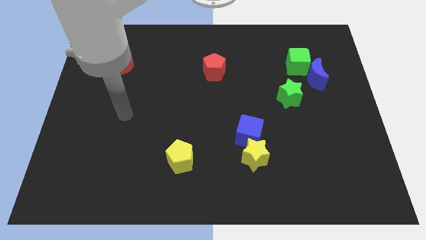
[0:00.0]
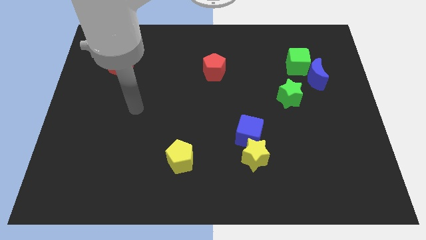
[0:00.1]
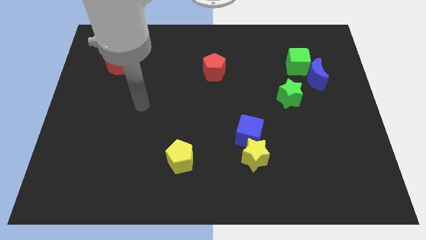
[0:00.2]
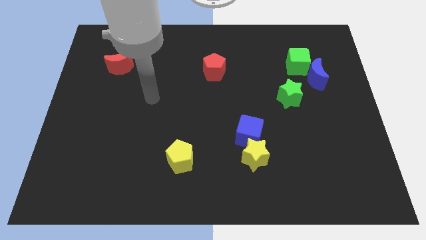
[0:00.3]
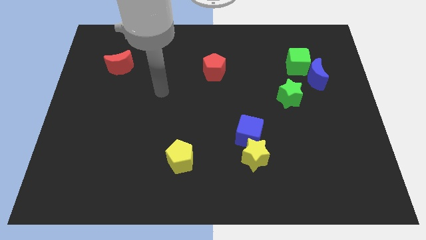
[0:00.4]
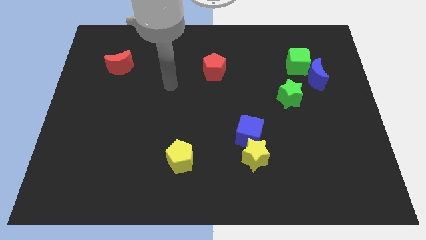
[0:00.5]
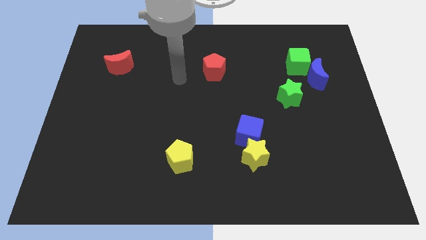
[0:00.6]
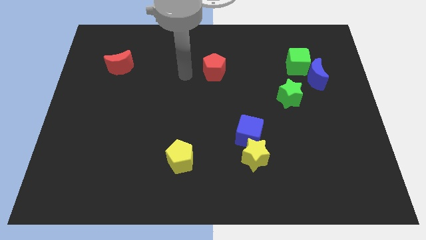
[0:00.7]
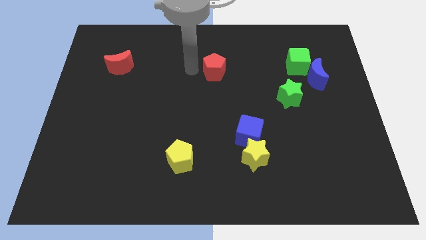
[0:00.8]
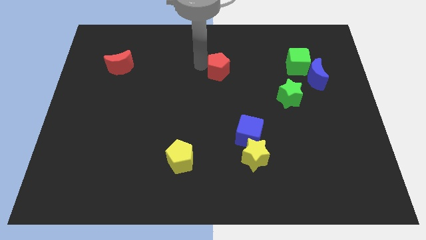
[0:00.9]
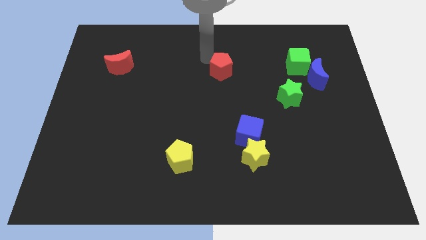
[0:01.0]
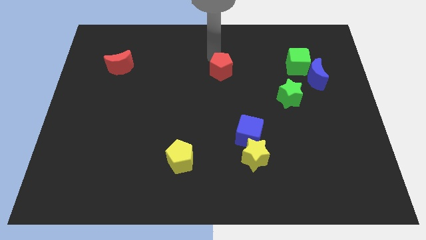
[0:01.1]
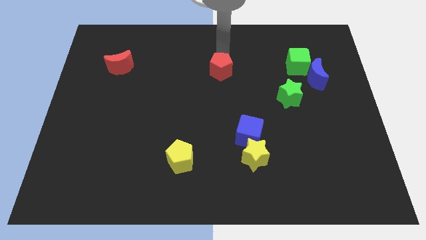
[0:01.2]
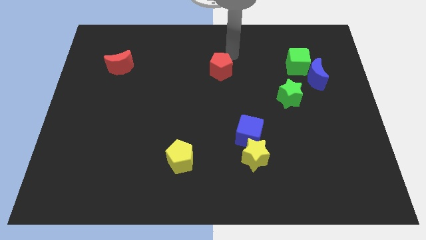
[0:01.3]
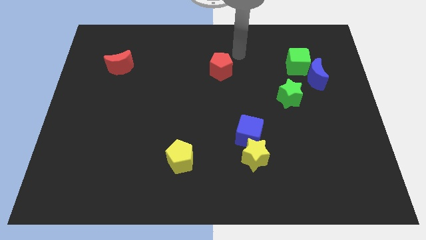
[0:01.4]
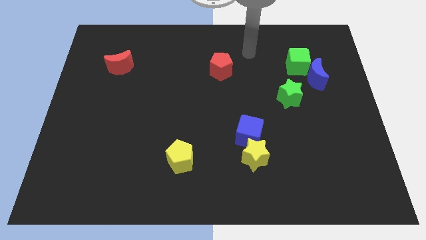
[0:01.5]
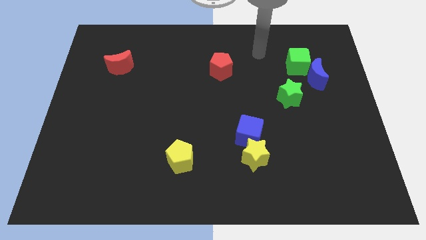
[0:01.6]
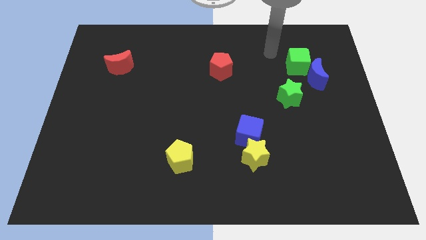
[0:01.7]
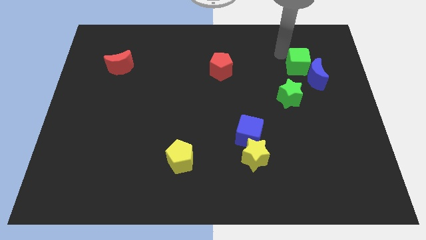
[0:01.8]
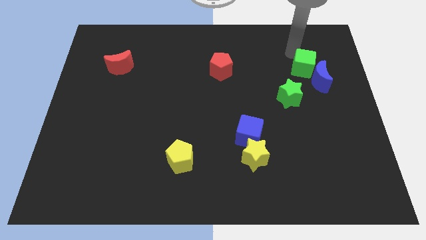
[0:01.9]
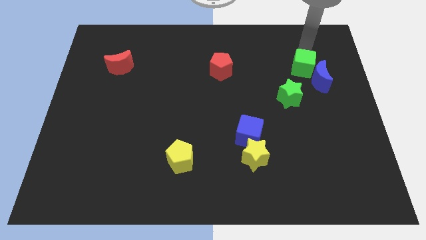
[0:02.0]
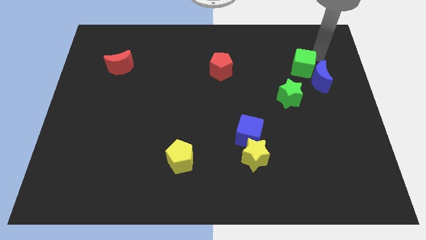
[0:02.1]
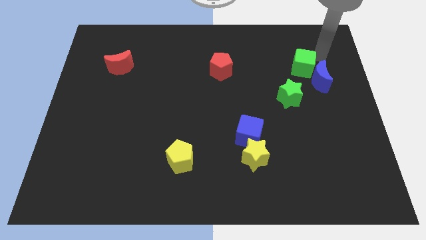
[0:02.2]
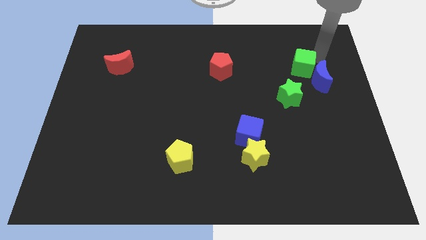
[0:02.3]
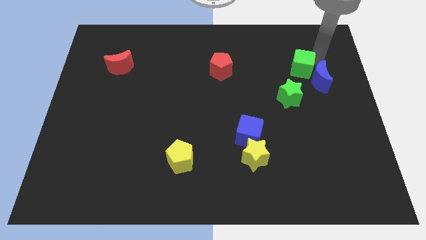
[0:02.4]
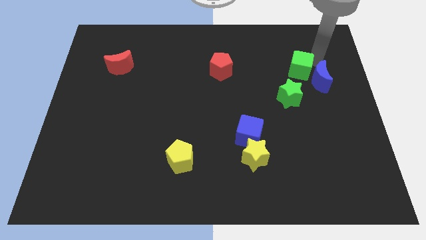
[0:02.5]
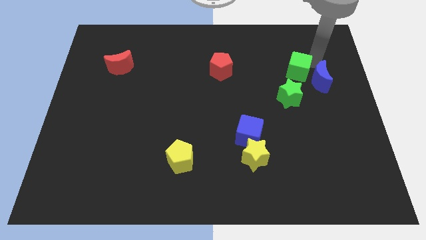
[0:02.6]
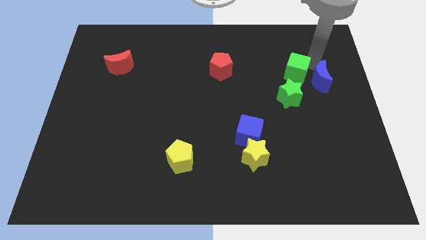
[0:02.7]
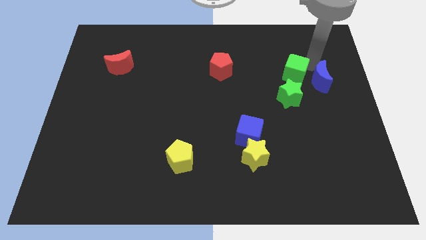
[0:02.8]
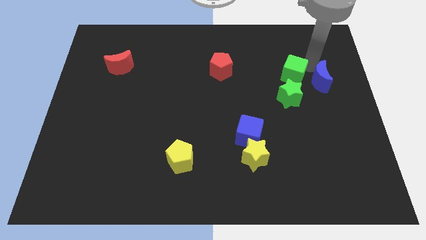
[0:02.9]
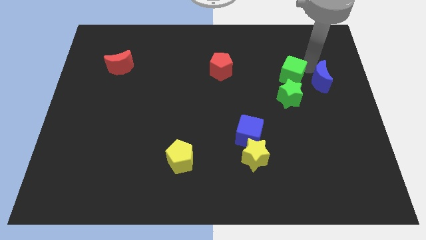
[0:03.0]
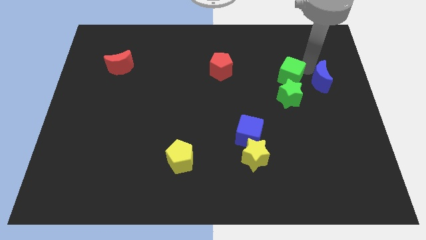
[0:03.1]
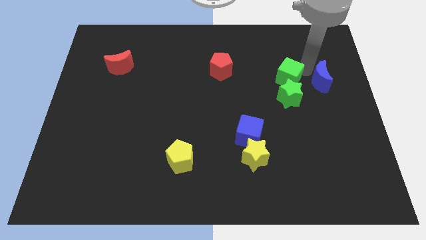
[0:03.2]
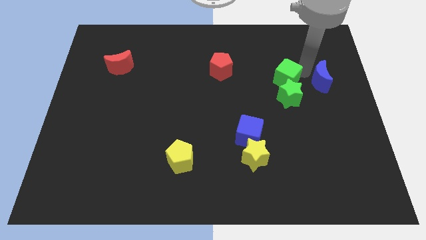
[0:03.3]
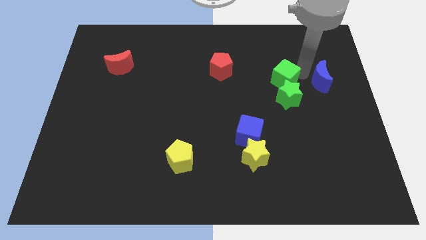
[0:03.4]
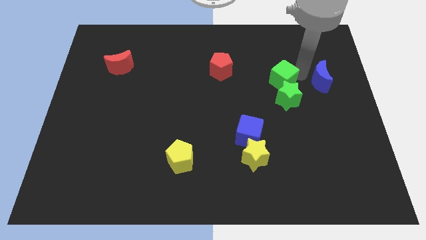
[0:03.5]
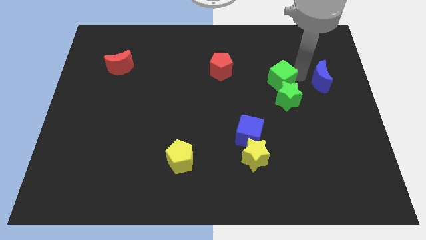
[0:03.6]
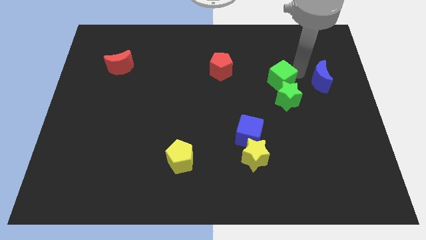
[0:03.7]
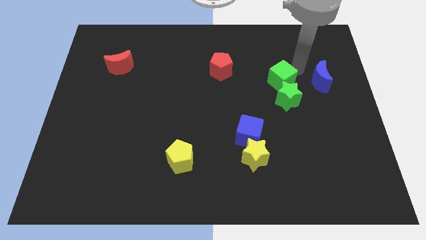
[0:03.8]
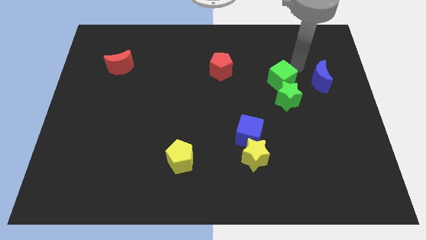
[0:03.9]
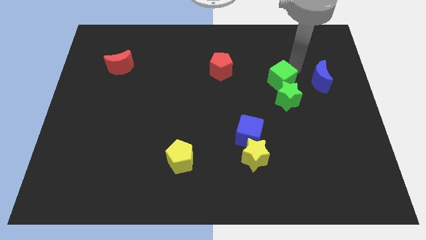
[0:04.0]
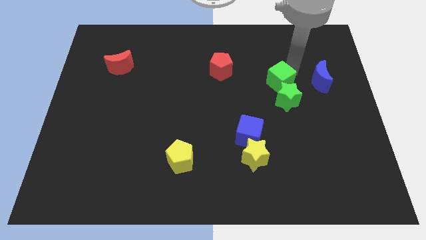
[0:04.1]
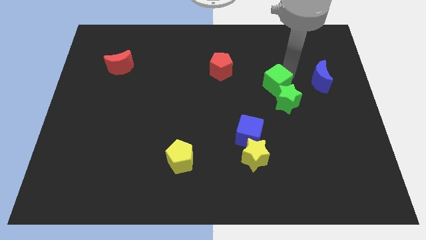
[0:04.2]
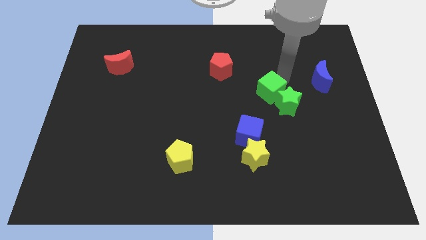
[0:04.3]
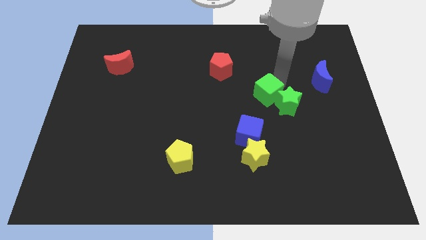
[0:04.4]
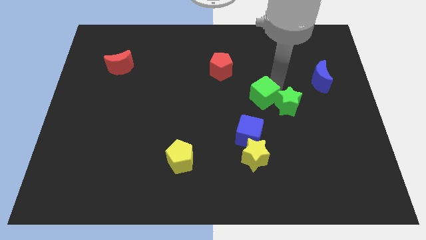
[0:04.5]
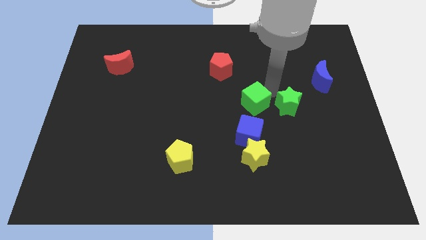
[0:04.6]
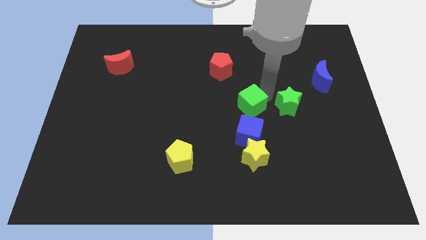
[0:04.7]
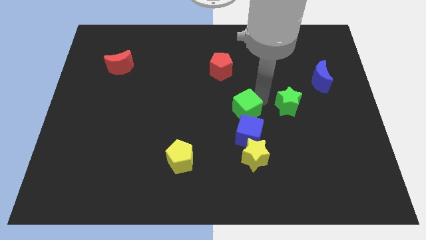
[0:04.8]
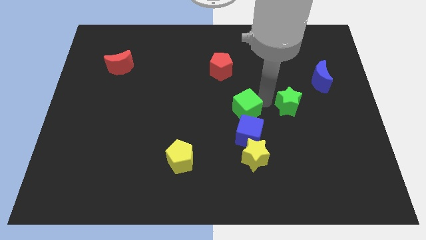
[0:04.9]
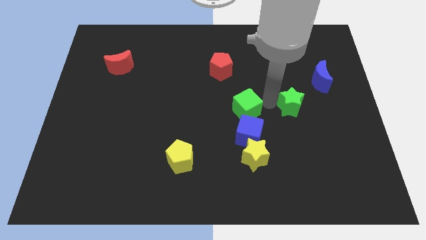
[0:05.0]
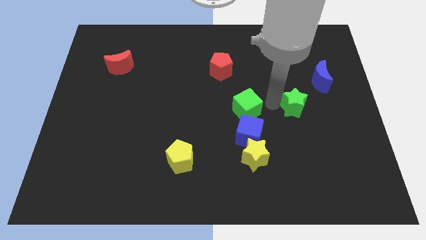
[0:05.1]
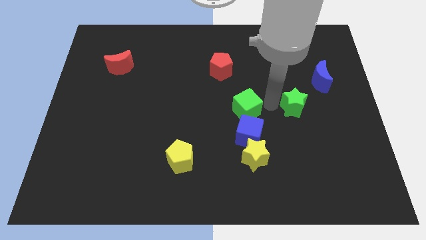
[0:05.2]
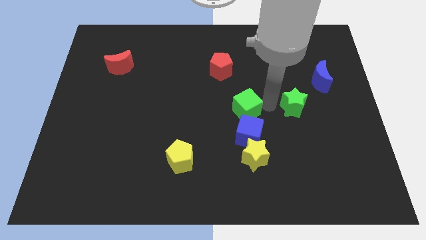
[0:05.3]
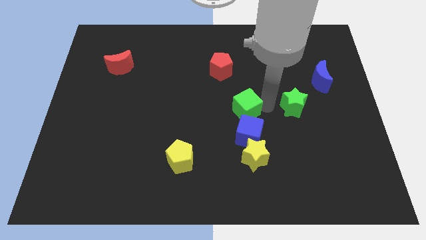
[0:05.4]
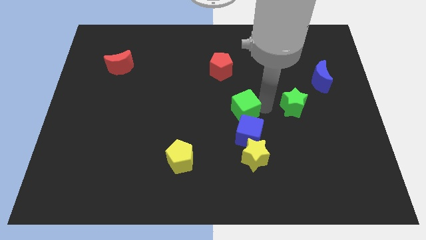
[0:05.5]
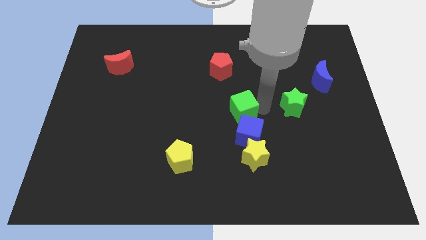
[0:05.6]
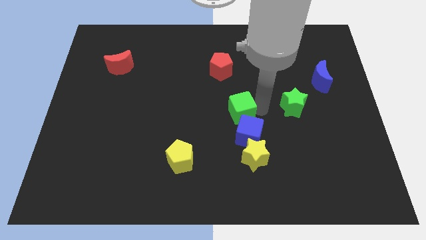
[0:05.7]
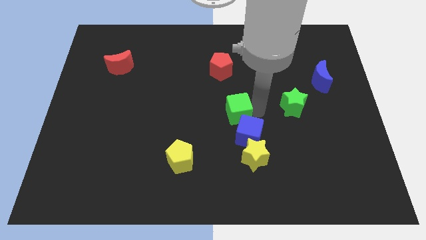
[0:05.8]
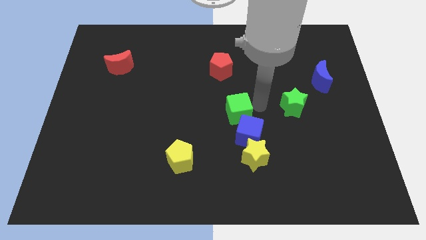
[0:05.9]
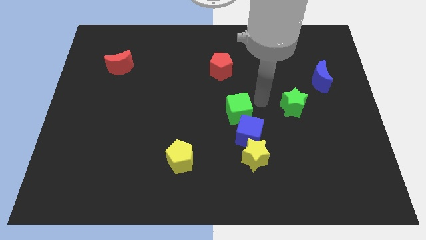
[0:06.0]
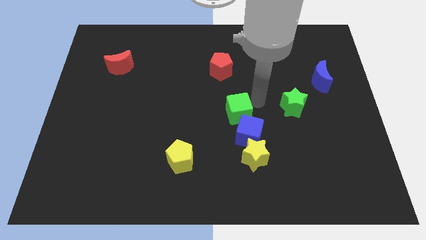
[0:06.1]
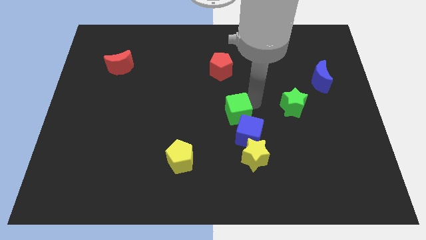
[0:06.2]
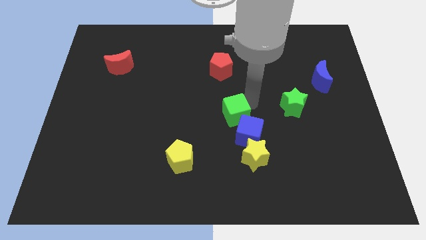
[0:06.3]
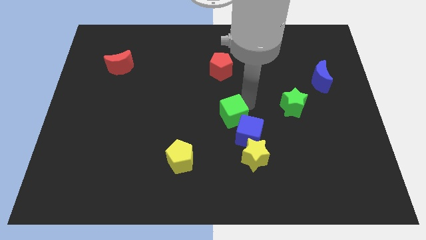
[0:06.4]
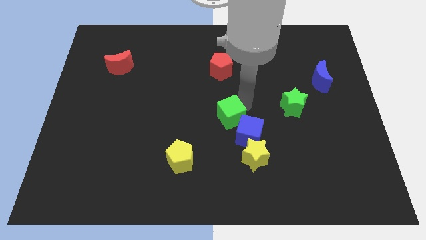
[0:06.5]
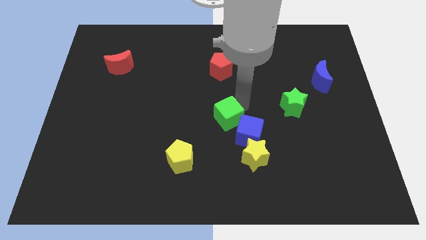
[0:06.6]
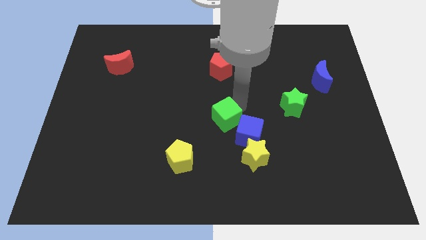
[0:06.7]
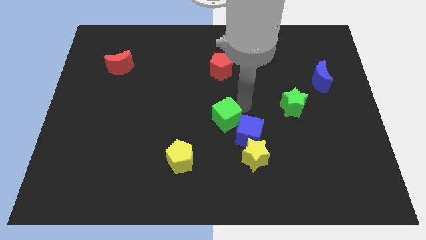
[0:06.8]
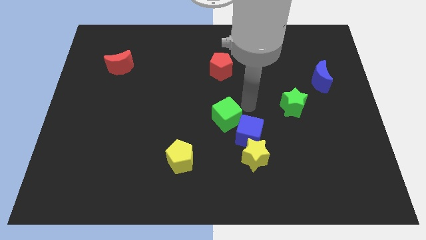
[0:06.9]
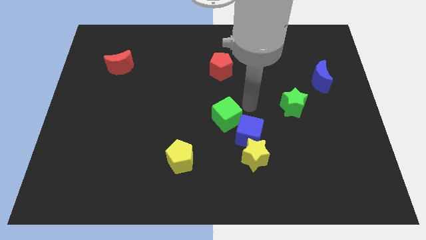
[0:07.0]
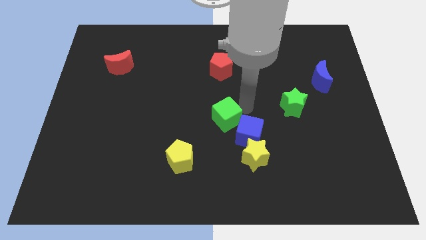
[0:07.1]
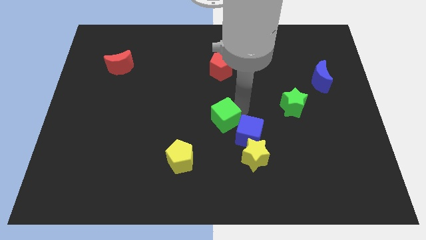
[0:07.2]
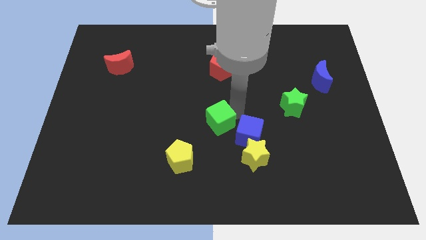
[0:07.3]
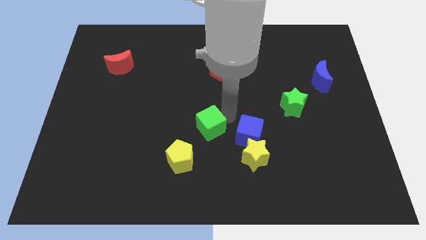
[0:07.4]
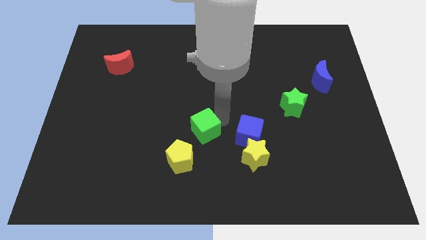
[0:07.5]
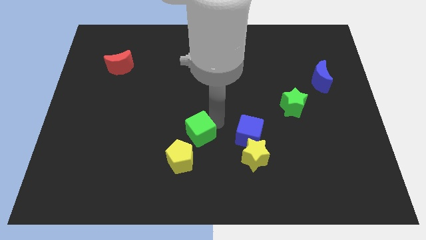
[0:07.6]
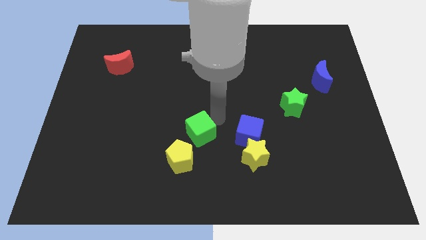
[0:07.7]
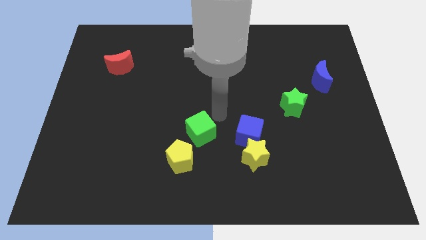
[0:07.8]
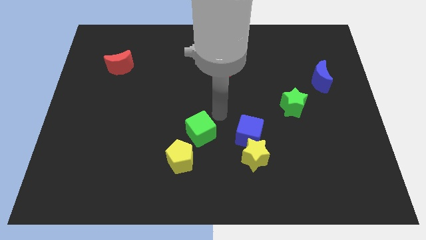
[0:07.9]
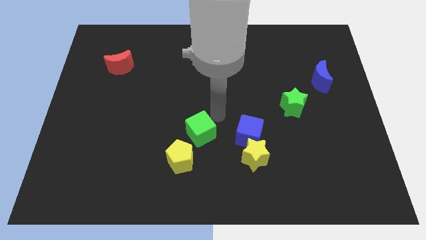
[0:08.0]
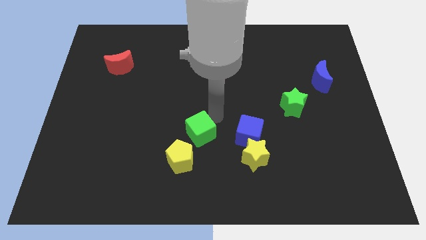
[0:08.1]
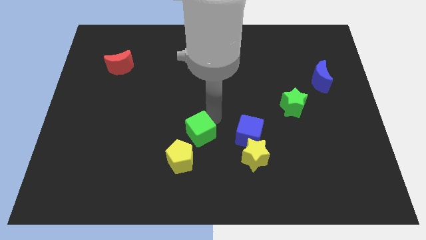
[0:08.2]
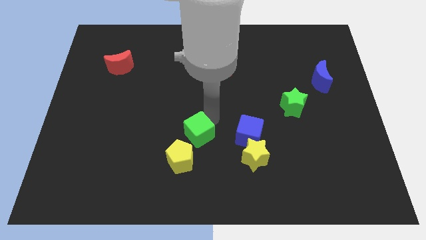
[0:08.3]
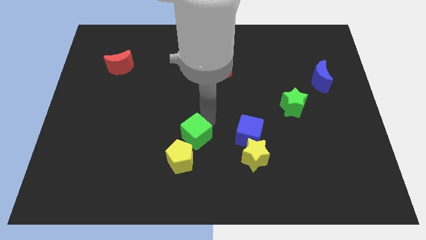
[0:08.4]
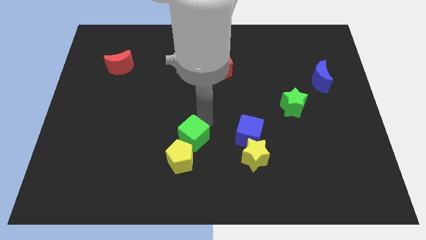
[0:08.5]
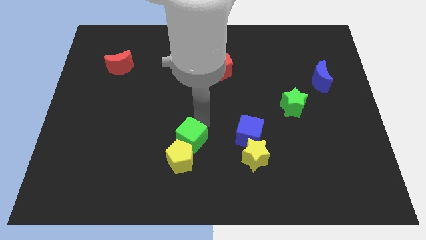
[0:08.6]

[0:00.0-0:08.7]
push the green cube to the yellow pentagon
